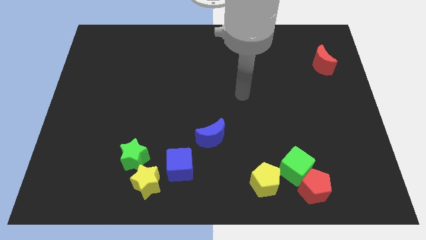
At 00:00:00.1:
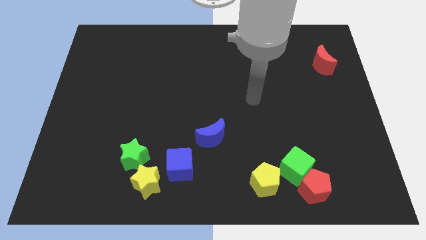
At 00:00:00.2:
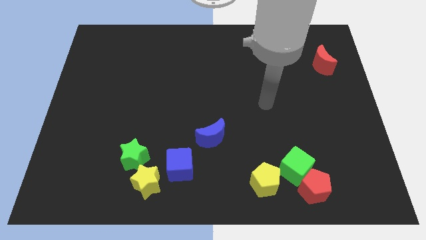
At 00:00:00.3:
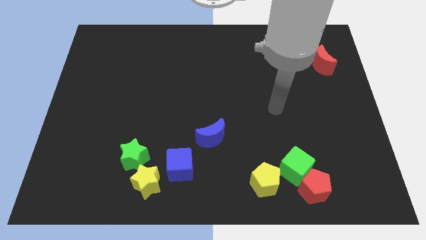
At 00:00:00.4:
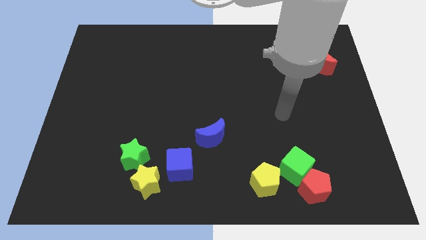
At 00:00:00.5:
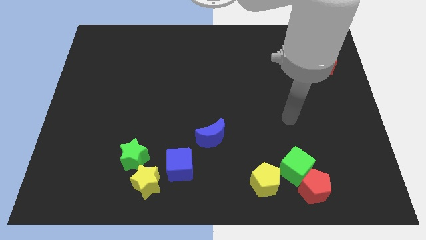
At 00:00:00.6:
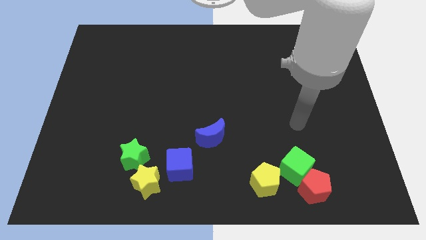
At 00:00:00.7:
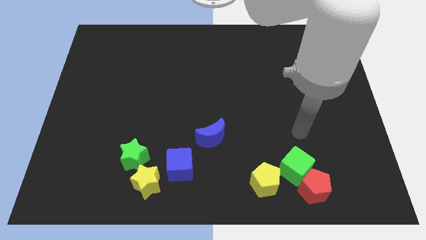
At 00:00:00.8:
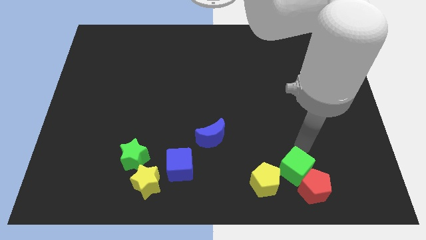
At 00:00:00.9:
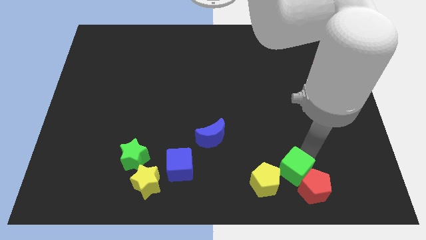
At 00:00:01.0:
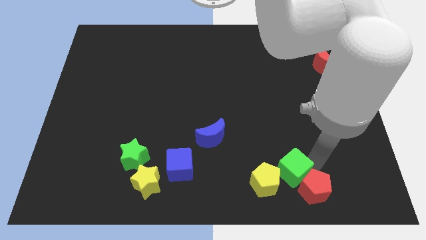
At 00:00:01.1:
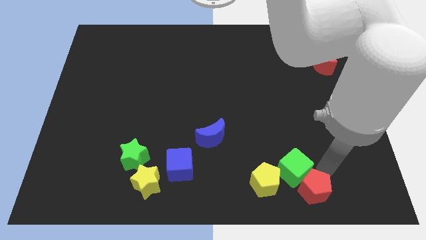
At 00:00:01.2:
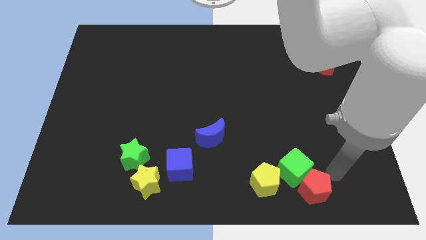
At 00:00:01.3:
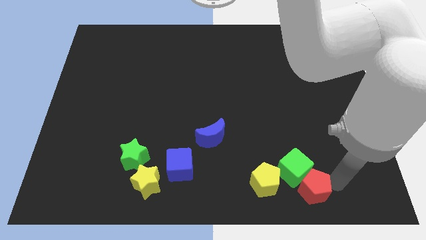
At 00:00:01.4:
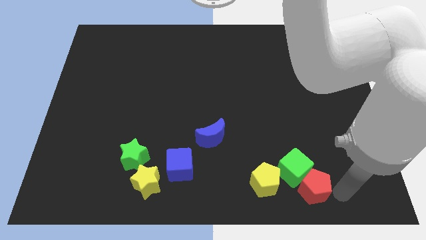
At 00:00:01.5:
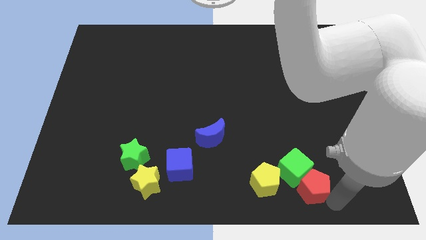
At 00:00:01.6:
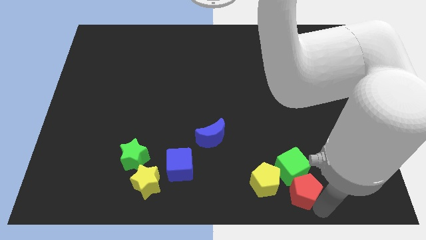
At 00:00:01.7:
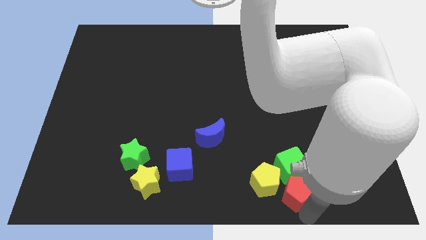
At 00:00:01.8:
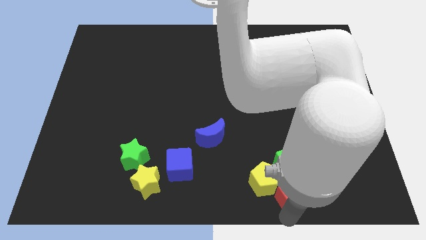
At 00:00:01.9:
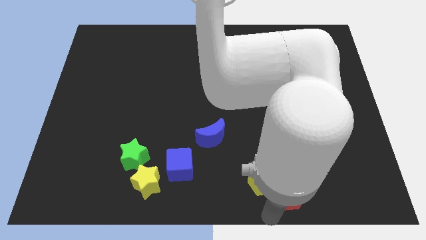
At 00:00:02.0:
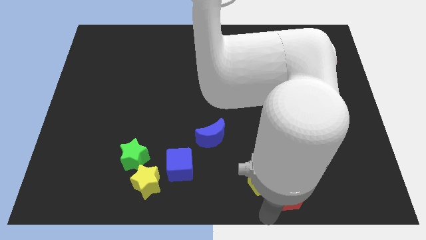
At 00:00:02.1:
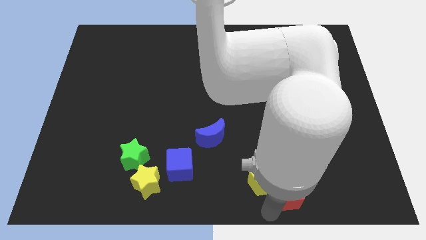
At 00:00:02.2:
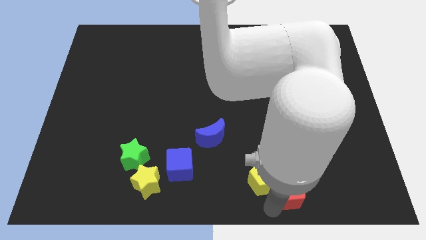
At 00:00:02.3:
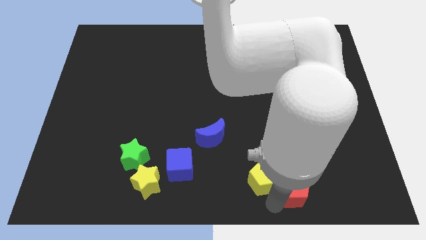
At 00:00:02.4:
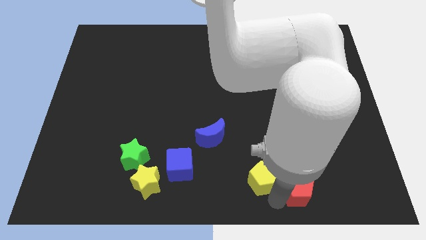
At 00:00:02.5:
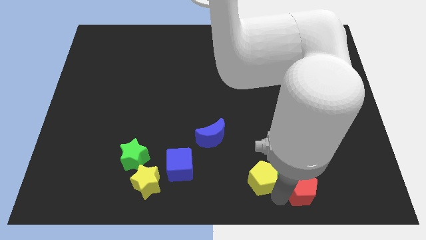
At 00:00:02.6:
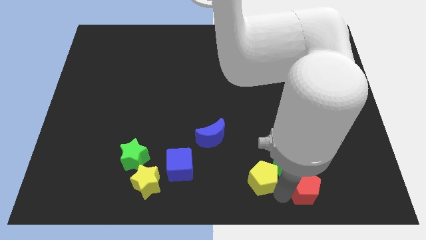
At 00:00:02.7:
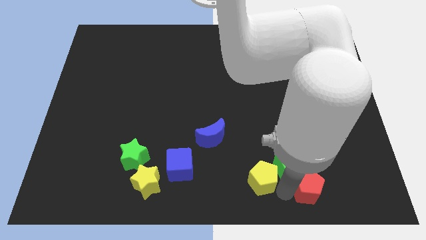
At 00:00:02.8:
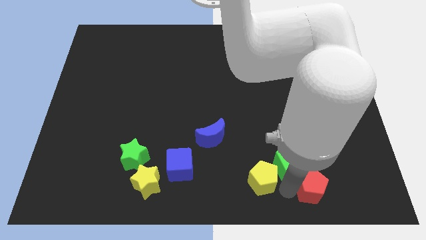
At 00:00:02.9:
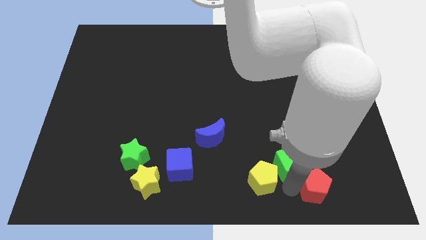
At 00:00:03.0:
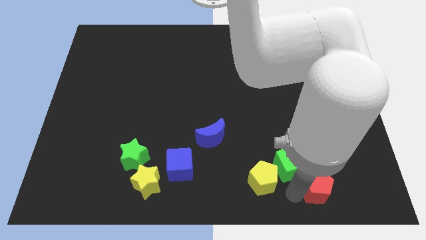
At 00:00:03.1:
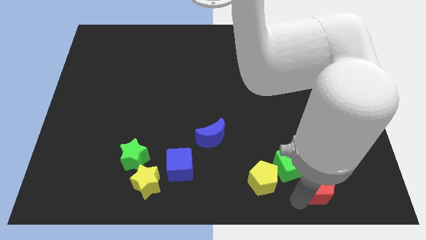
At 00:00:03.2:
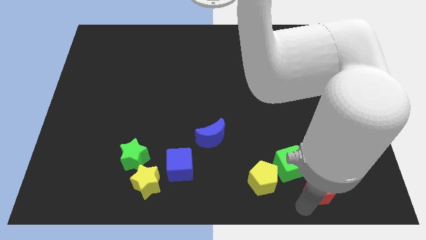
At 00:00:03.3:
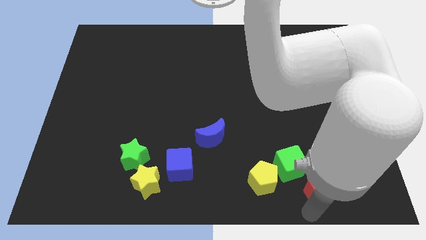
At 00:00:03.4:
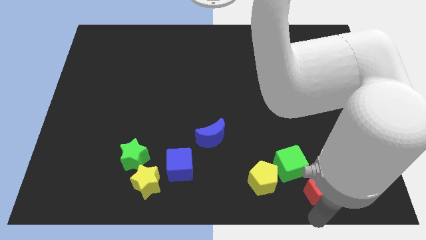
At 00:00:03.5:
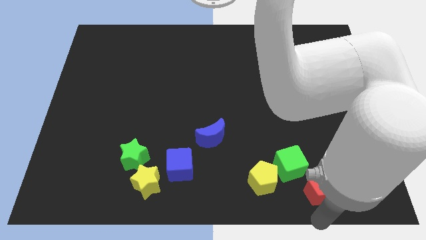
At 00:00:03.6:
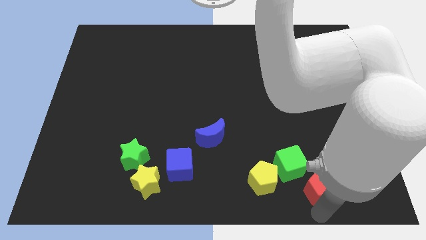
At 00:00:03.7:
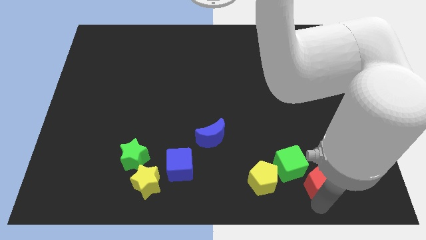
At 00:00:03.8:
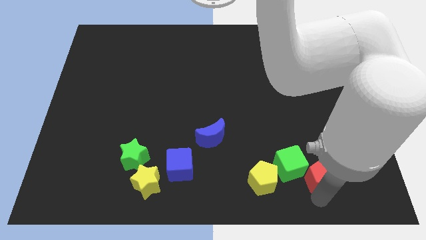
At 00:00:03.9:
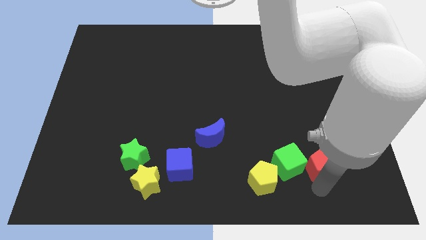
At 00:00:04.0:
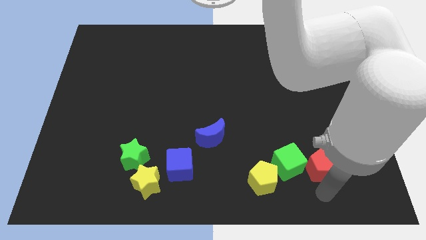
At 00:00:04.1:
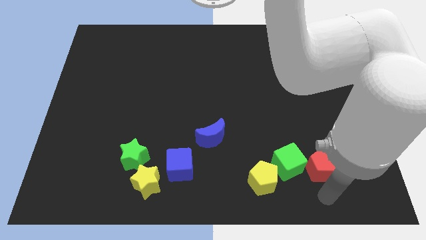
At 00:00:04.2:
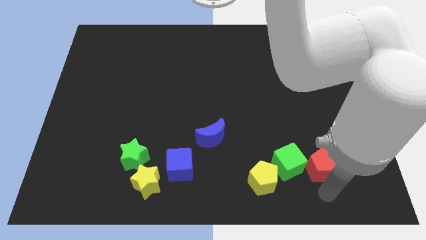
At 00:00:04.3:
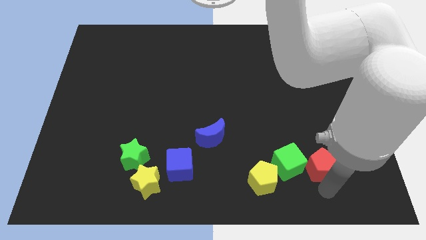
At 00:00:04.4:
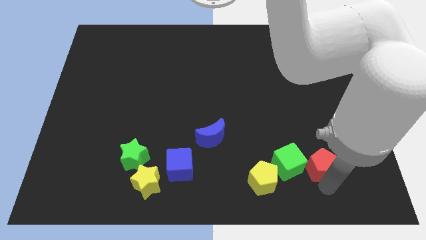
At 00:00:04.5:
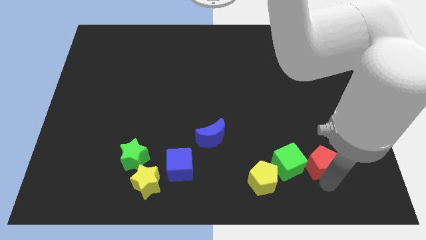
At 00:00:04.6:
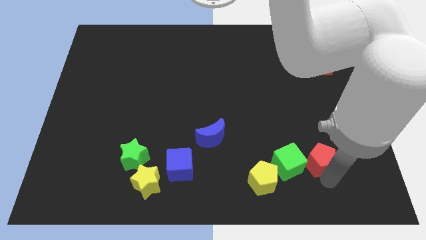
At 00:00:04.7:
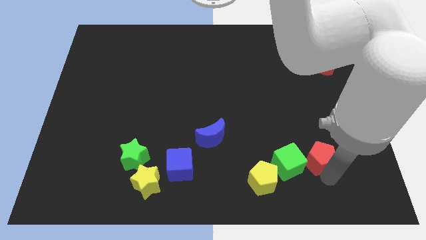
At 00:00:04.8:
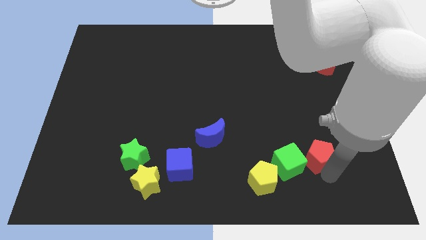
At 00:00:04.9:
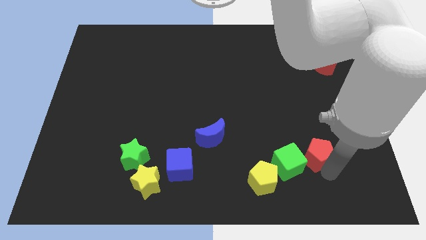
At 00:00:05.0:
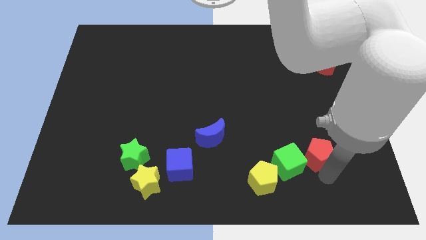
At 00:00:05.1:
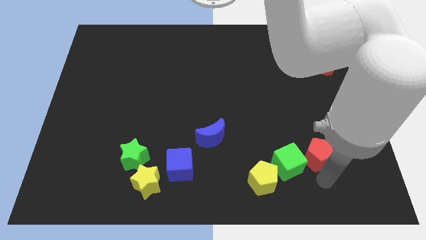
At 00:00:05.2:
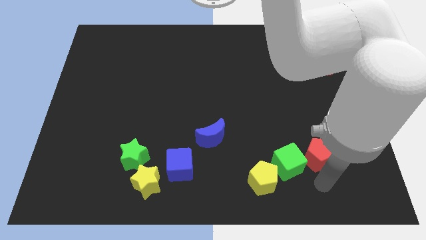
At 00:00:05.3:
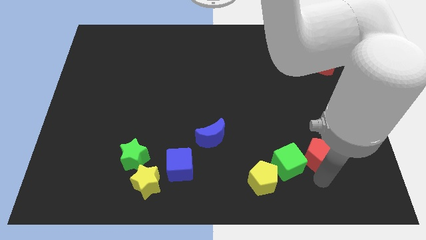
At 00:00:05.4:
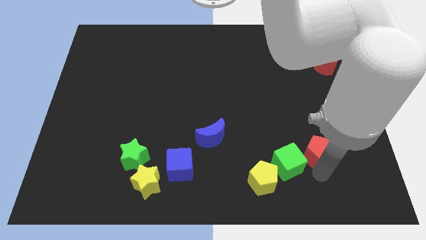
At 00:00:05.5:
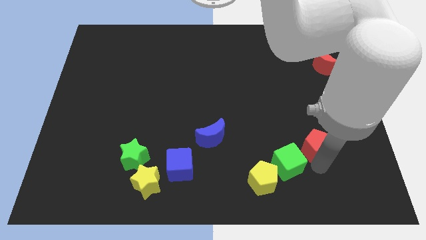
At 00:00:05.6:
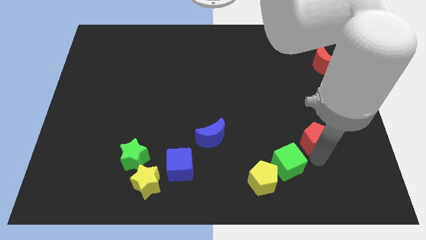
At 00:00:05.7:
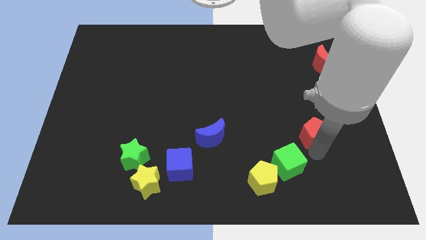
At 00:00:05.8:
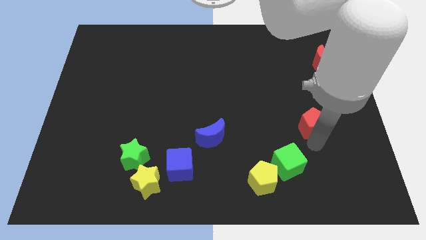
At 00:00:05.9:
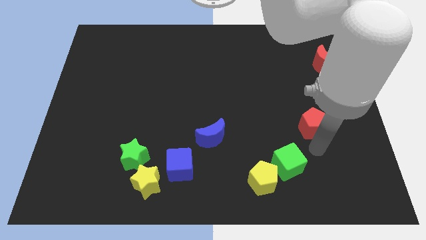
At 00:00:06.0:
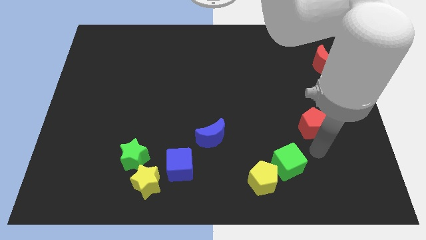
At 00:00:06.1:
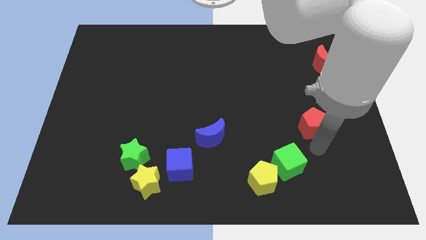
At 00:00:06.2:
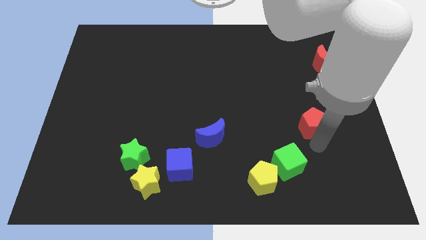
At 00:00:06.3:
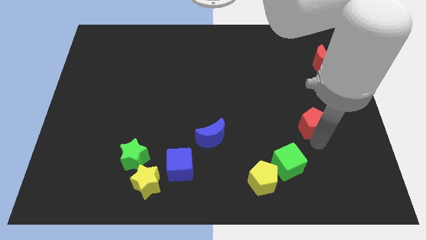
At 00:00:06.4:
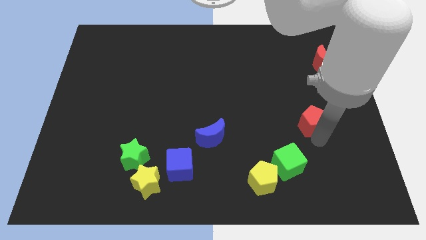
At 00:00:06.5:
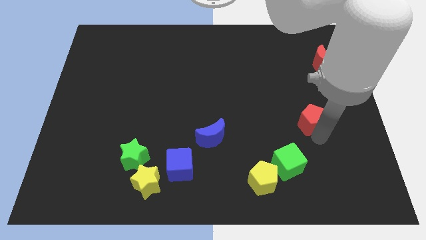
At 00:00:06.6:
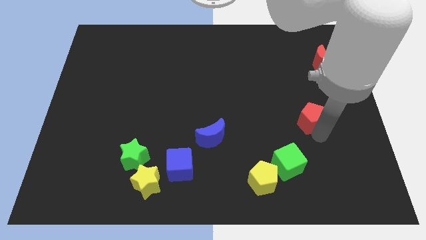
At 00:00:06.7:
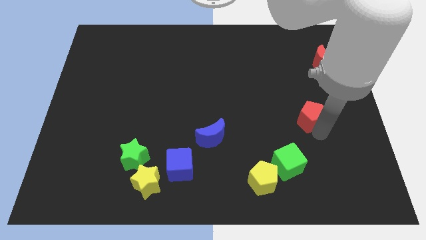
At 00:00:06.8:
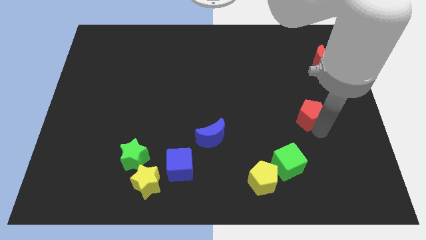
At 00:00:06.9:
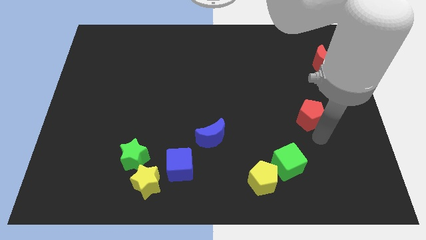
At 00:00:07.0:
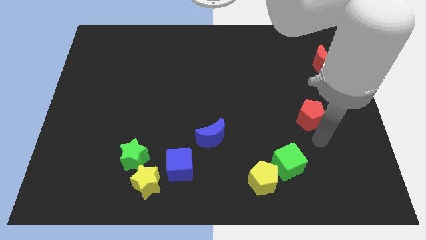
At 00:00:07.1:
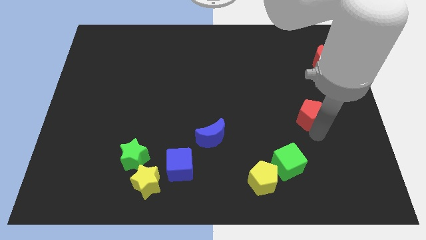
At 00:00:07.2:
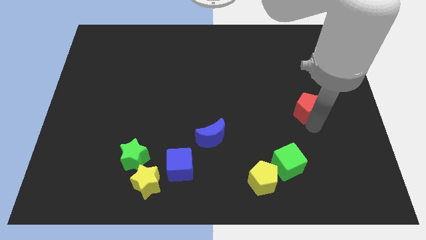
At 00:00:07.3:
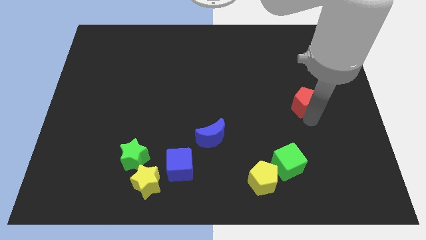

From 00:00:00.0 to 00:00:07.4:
push the red pentagon up

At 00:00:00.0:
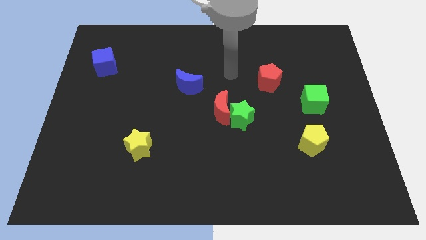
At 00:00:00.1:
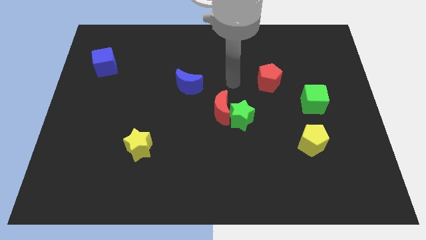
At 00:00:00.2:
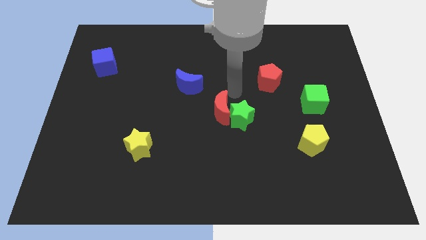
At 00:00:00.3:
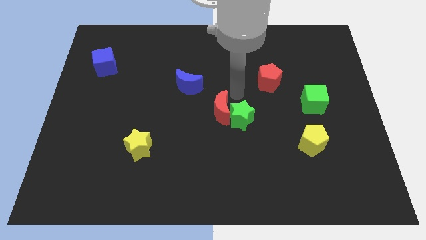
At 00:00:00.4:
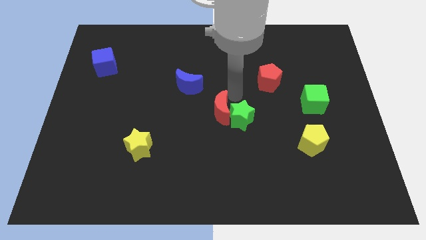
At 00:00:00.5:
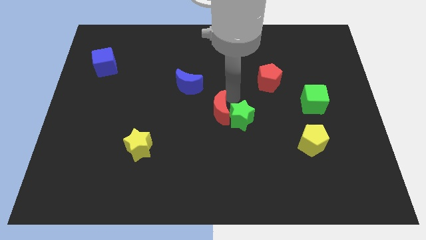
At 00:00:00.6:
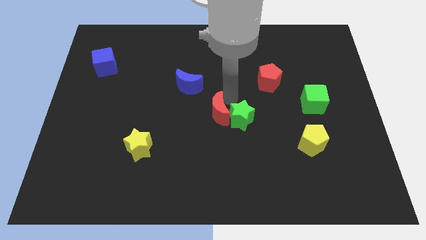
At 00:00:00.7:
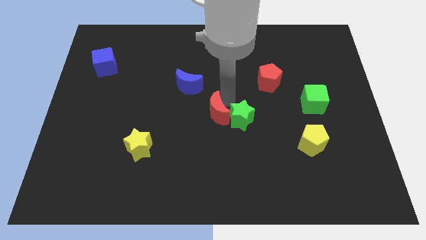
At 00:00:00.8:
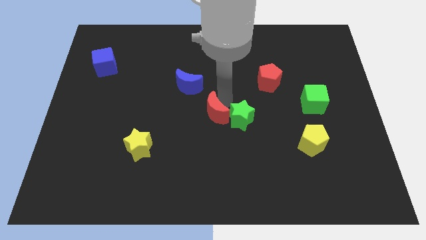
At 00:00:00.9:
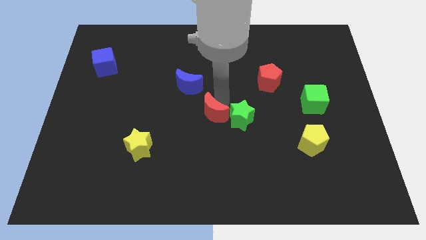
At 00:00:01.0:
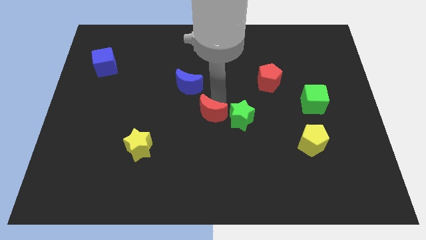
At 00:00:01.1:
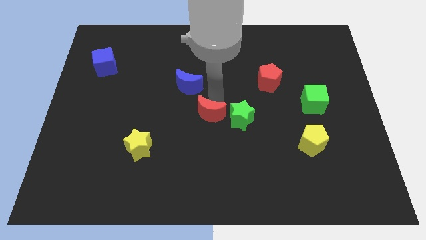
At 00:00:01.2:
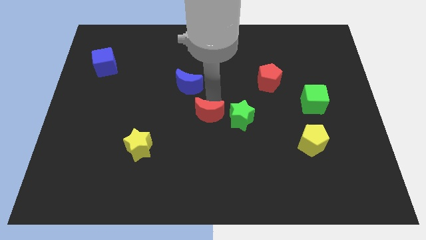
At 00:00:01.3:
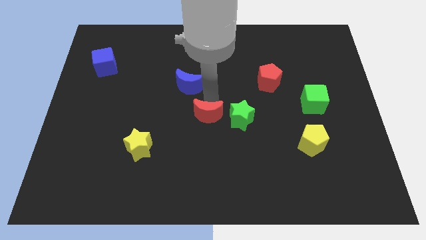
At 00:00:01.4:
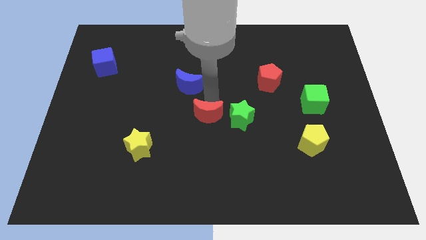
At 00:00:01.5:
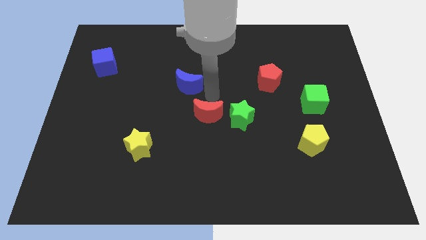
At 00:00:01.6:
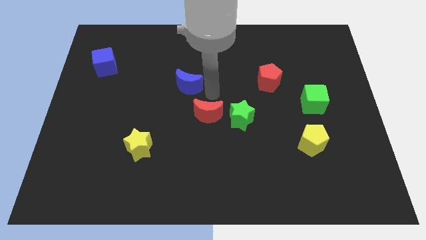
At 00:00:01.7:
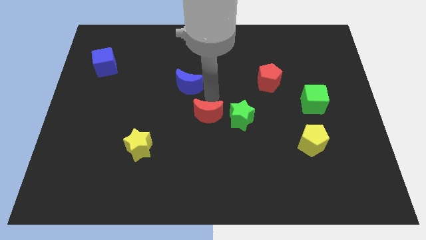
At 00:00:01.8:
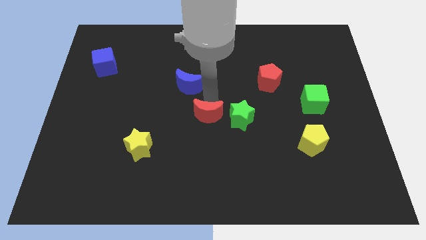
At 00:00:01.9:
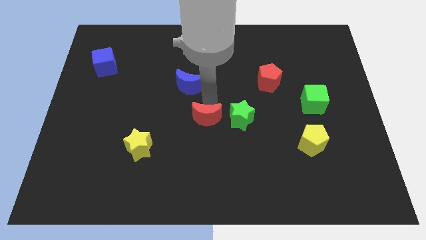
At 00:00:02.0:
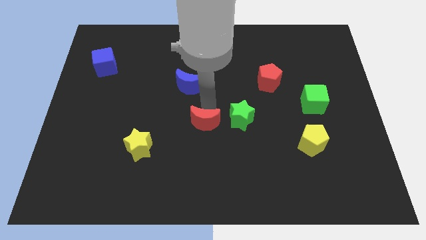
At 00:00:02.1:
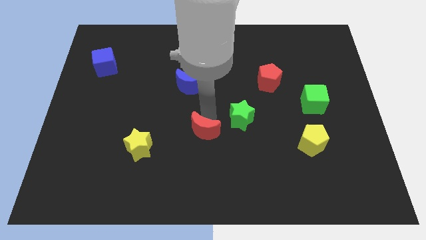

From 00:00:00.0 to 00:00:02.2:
move the red moon a little bit downwards and left
